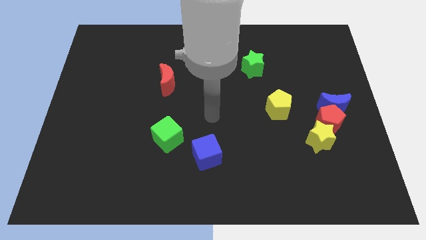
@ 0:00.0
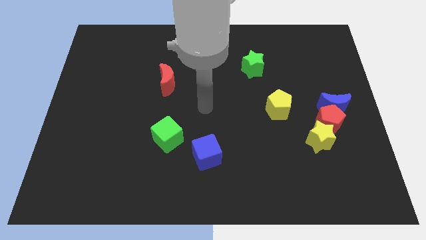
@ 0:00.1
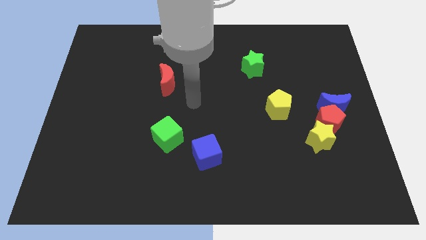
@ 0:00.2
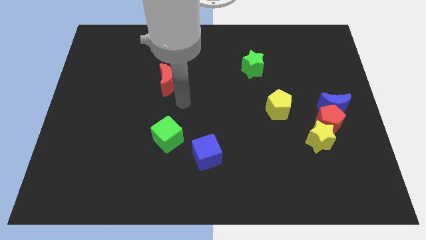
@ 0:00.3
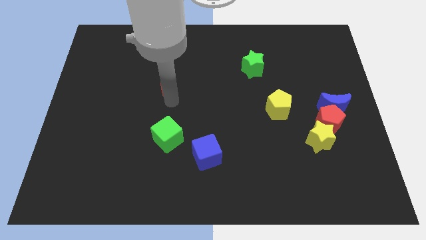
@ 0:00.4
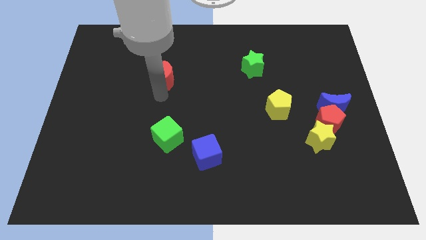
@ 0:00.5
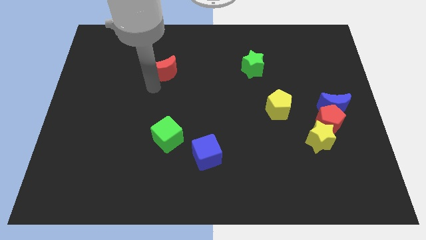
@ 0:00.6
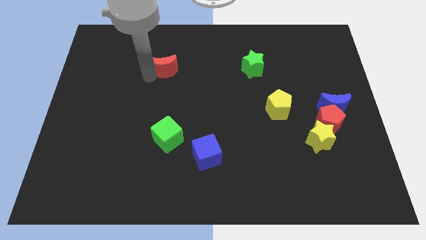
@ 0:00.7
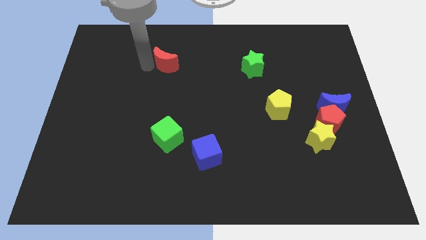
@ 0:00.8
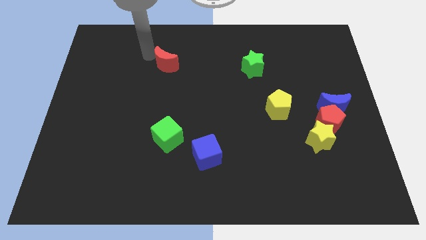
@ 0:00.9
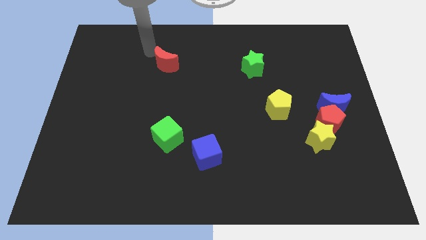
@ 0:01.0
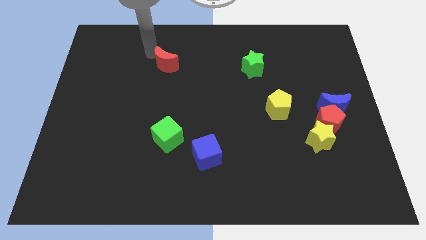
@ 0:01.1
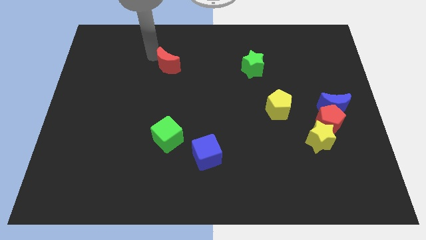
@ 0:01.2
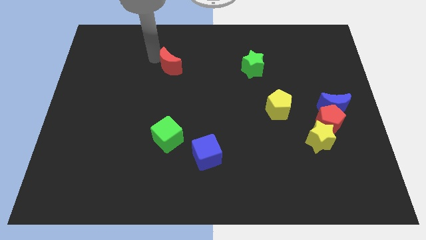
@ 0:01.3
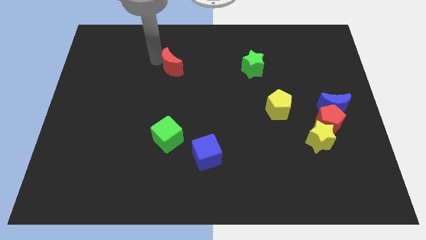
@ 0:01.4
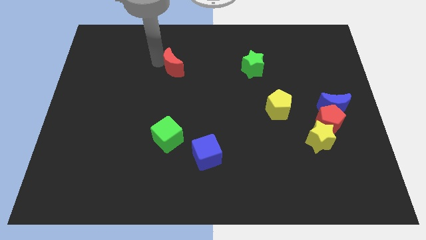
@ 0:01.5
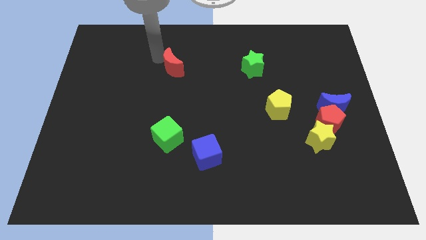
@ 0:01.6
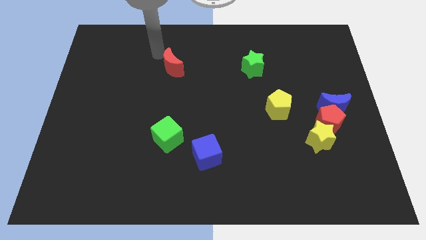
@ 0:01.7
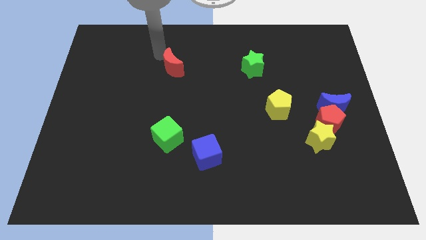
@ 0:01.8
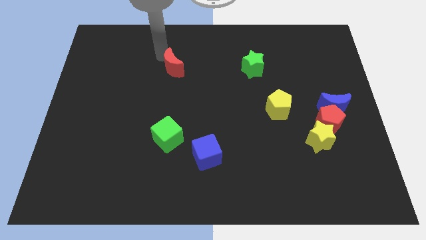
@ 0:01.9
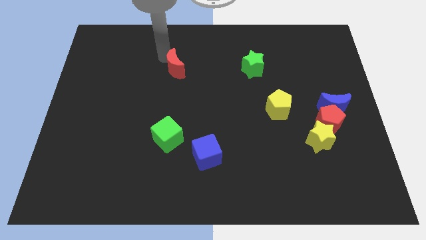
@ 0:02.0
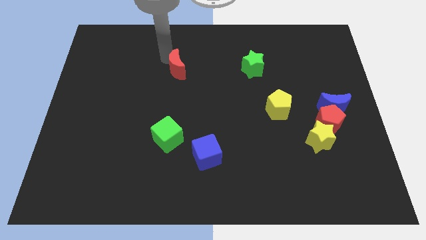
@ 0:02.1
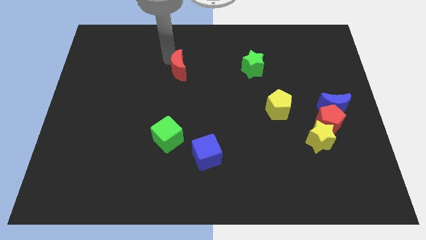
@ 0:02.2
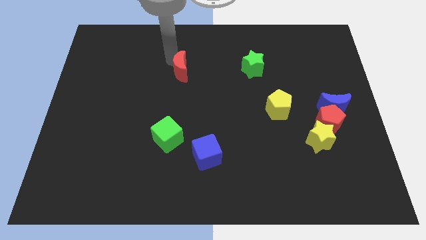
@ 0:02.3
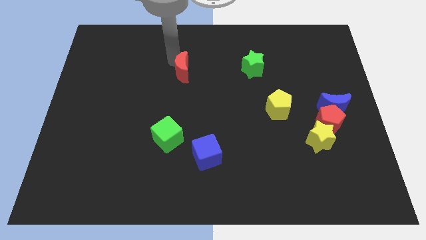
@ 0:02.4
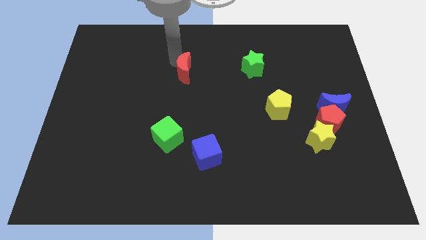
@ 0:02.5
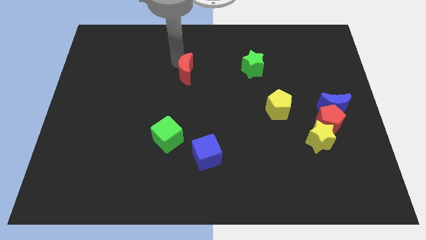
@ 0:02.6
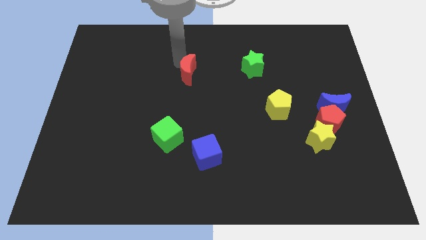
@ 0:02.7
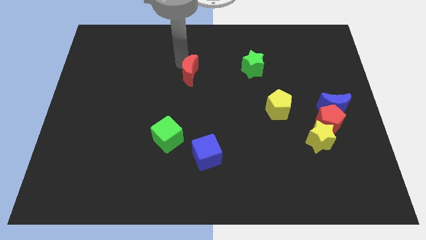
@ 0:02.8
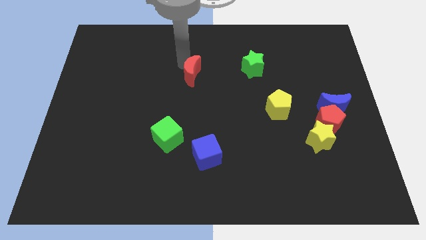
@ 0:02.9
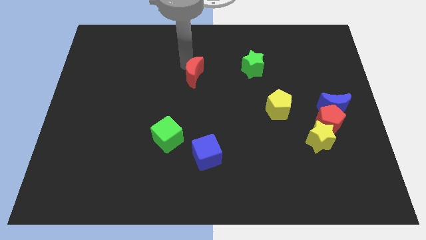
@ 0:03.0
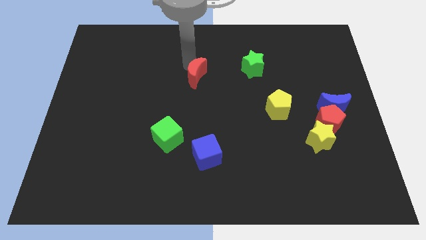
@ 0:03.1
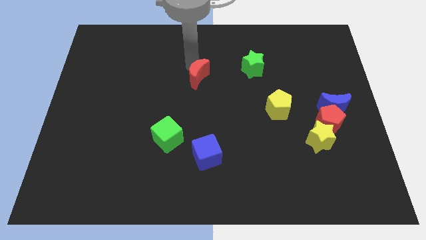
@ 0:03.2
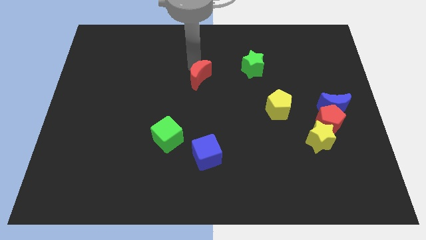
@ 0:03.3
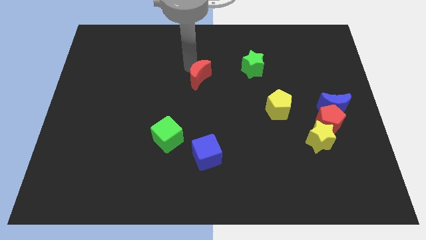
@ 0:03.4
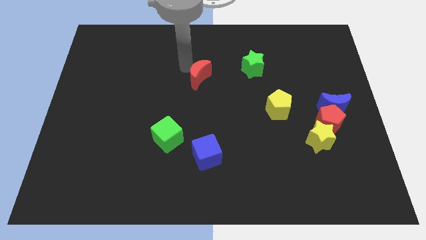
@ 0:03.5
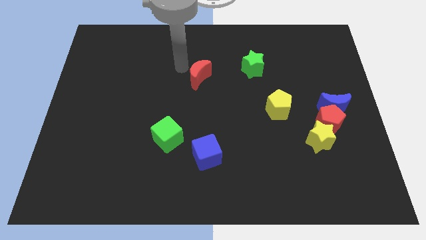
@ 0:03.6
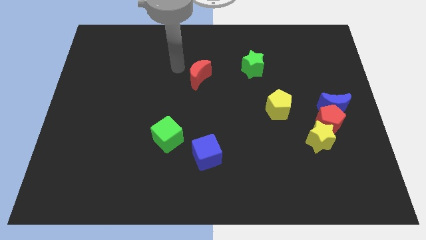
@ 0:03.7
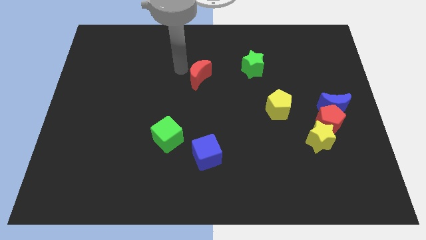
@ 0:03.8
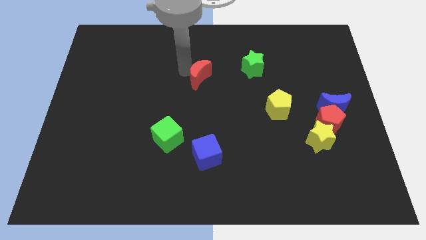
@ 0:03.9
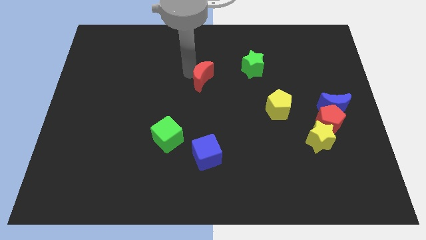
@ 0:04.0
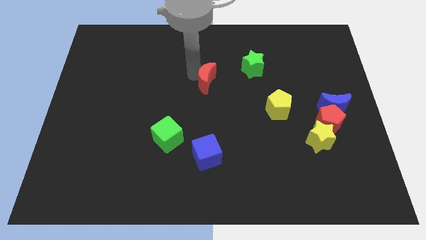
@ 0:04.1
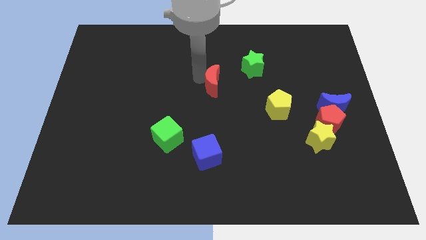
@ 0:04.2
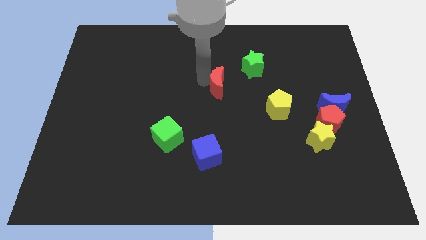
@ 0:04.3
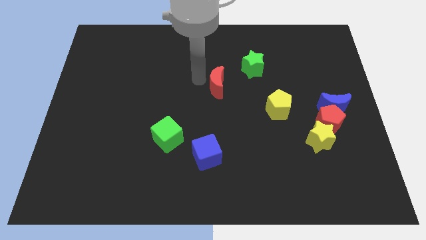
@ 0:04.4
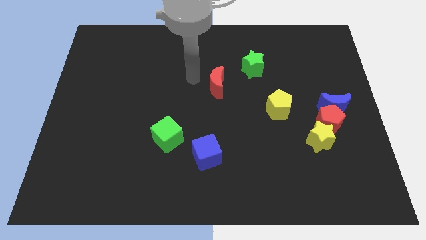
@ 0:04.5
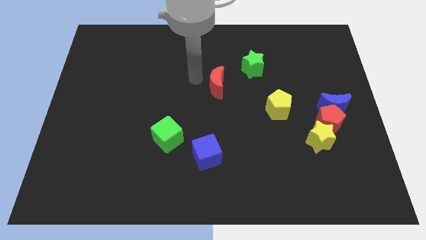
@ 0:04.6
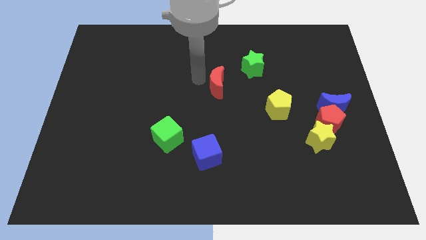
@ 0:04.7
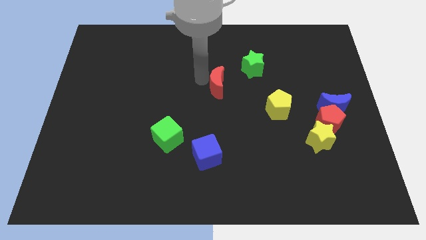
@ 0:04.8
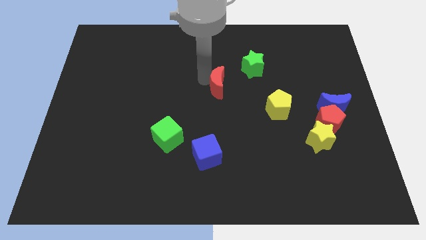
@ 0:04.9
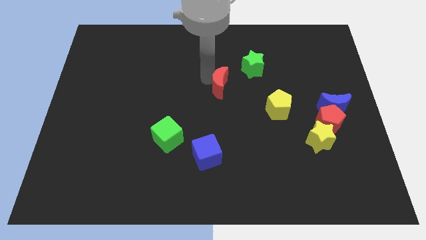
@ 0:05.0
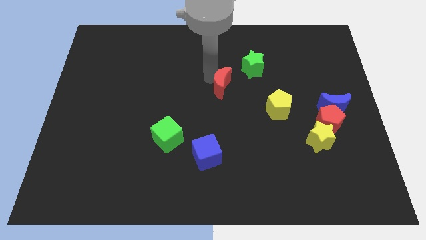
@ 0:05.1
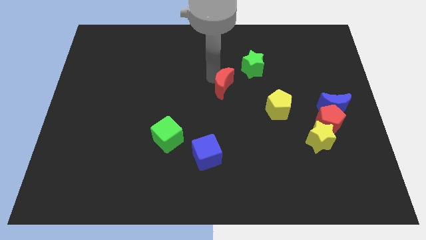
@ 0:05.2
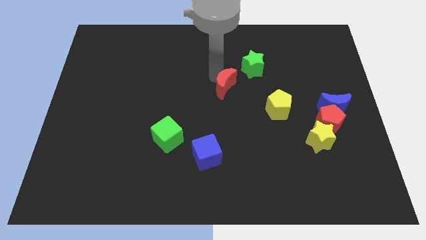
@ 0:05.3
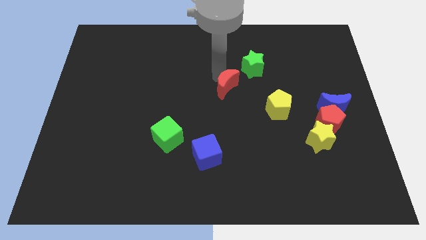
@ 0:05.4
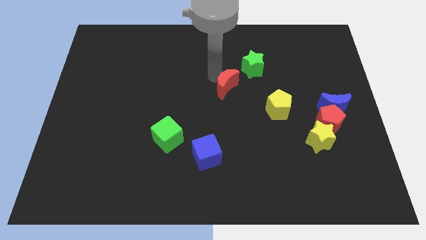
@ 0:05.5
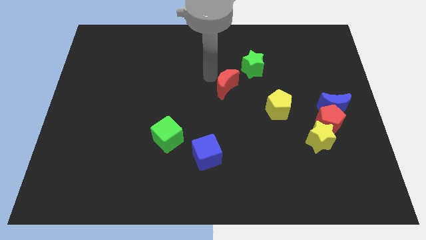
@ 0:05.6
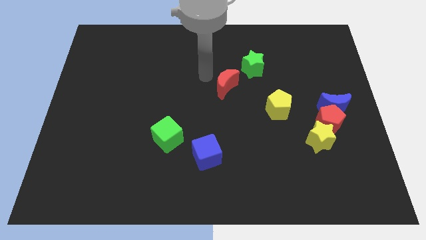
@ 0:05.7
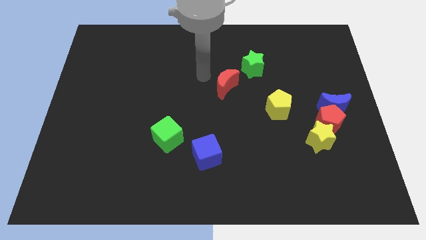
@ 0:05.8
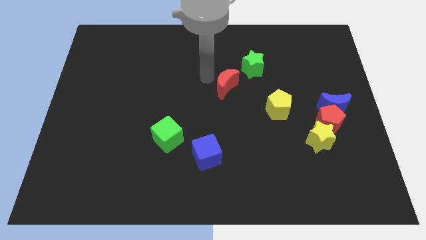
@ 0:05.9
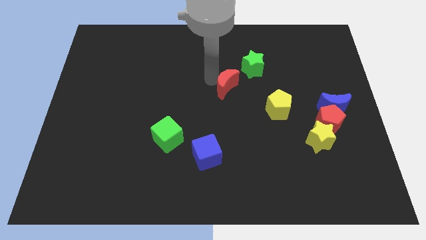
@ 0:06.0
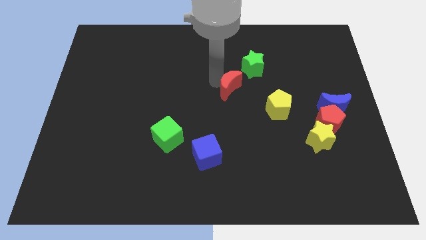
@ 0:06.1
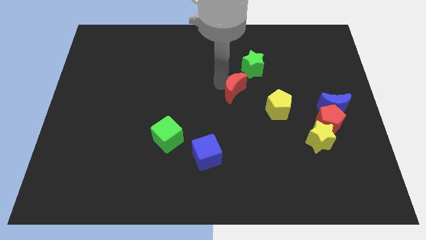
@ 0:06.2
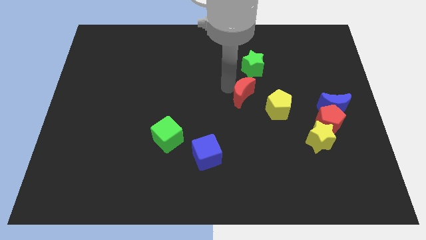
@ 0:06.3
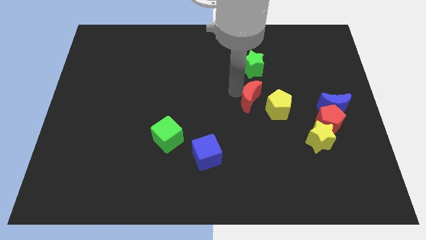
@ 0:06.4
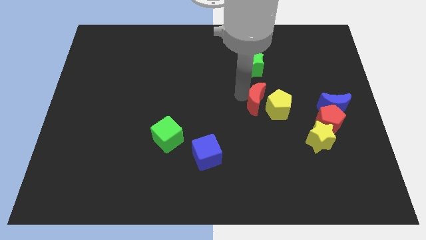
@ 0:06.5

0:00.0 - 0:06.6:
move the red moon towards the yellow pentagon

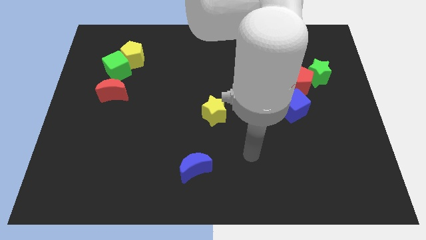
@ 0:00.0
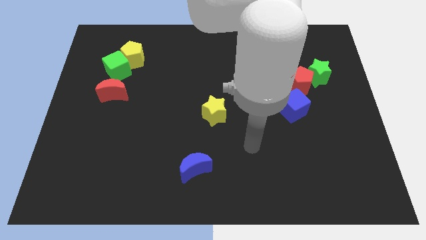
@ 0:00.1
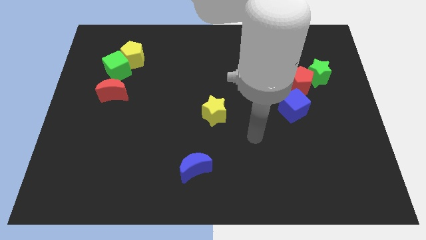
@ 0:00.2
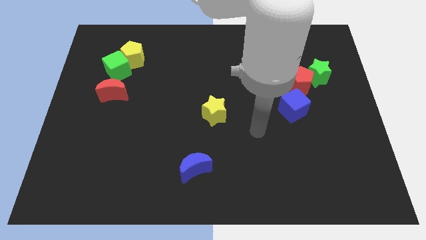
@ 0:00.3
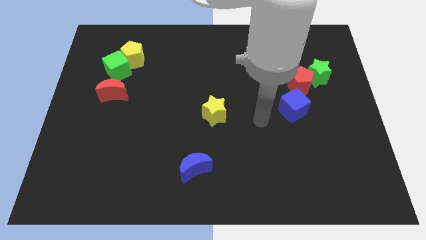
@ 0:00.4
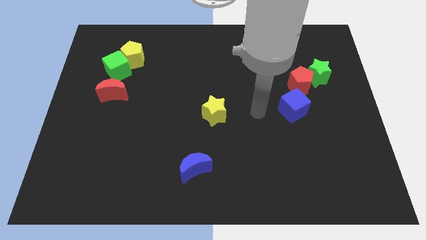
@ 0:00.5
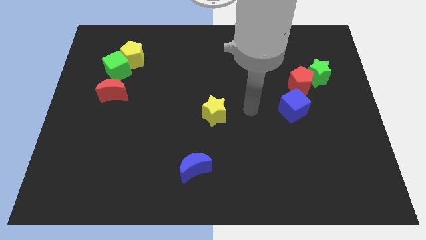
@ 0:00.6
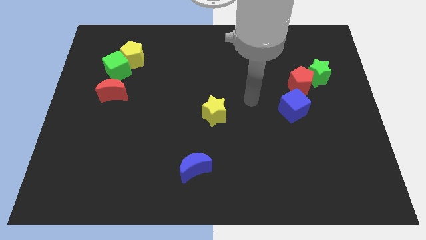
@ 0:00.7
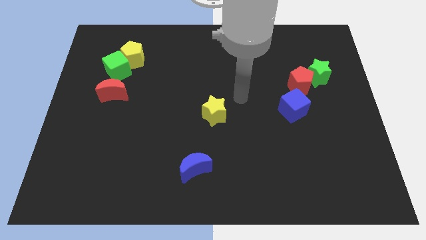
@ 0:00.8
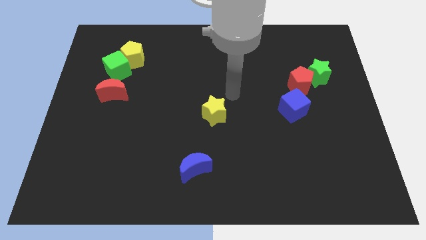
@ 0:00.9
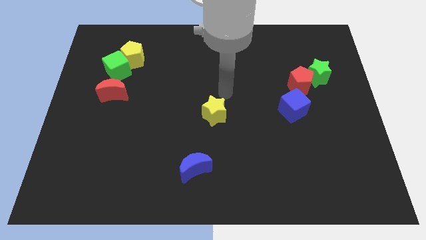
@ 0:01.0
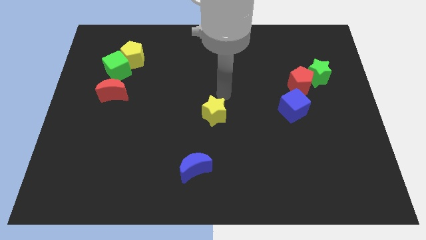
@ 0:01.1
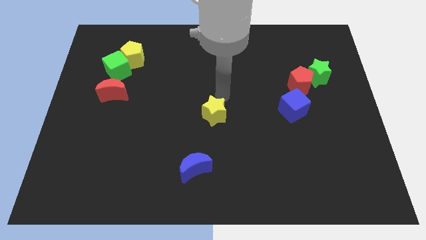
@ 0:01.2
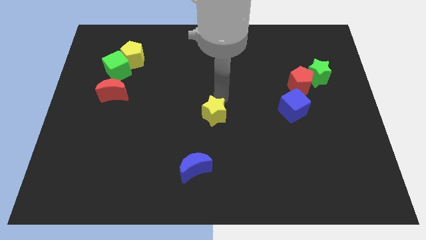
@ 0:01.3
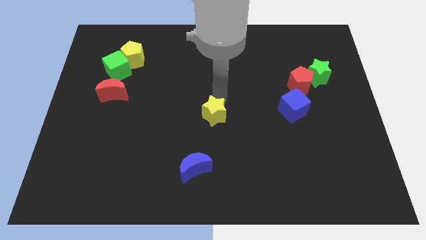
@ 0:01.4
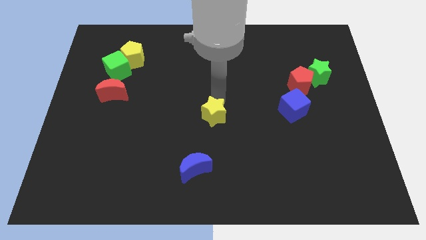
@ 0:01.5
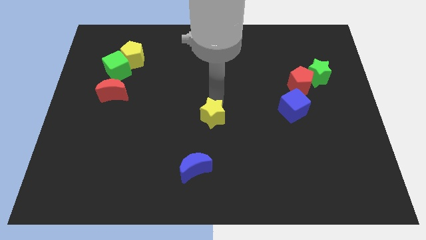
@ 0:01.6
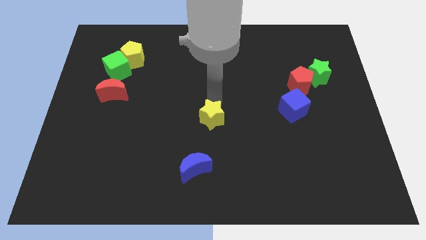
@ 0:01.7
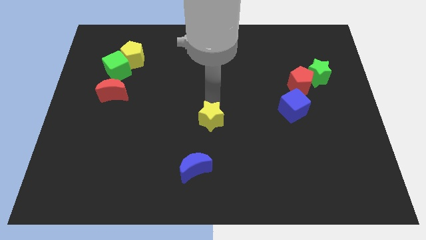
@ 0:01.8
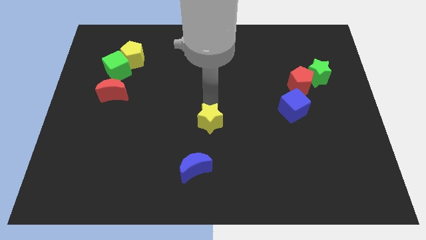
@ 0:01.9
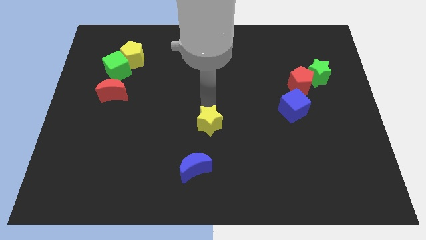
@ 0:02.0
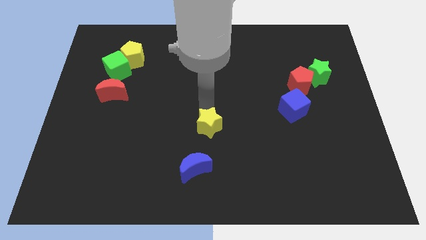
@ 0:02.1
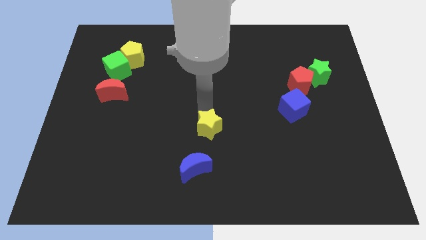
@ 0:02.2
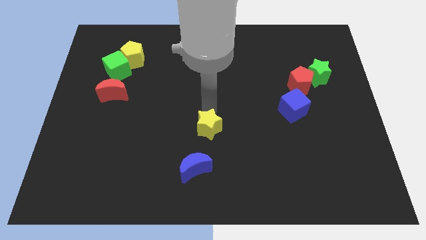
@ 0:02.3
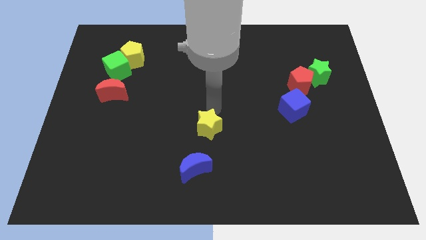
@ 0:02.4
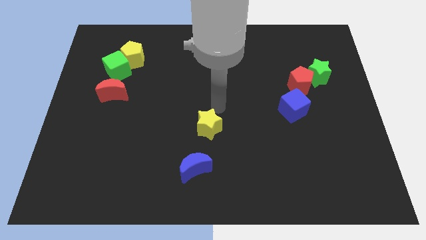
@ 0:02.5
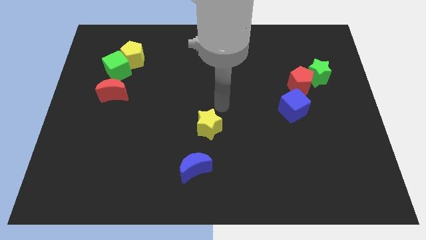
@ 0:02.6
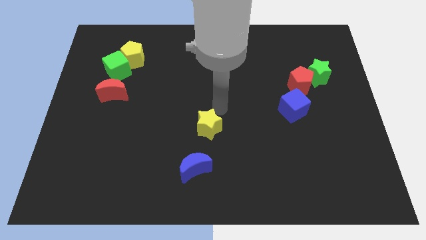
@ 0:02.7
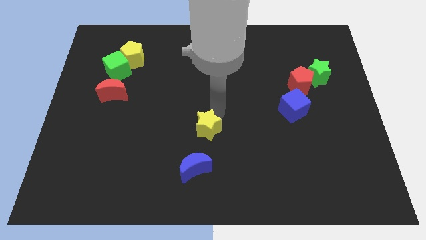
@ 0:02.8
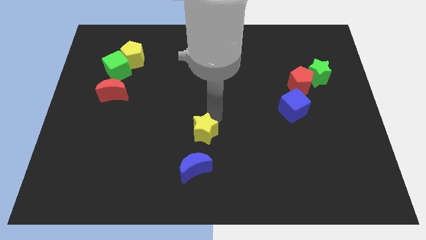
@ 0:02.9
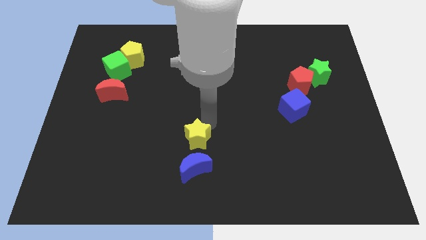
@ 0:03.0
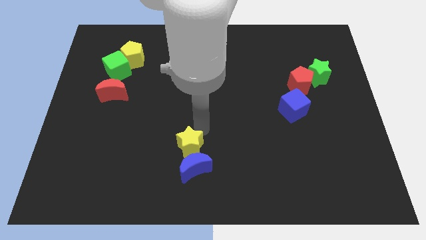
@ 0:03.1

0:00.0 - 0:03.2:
move the yellow star next to the blue moon
